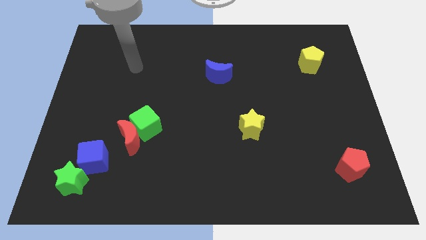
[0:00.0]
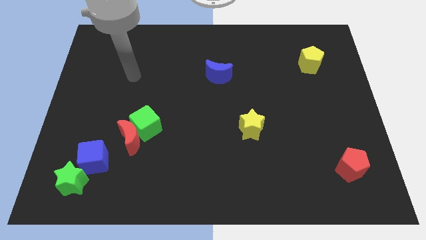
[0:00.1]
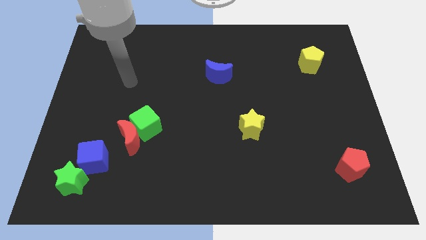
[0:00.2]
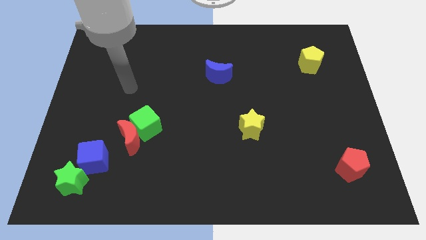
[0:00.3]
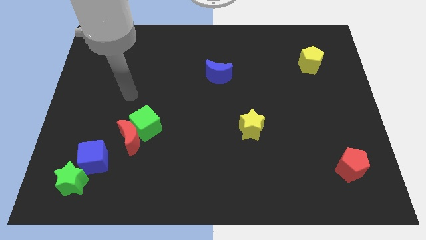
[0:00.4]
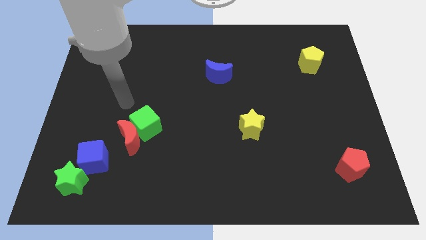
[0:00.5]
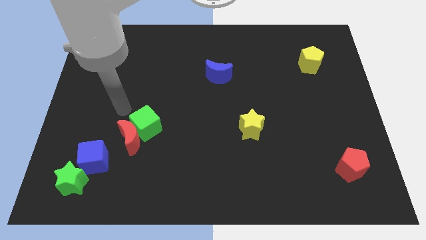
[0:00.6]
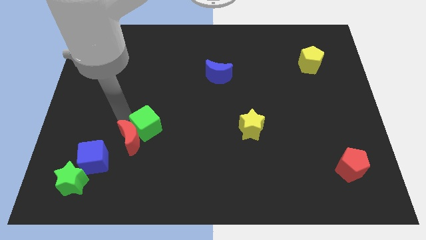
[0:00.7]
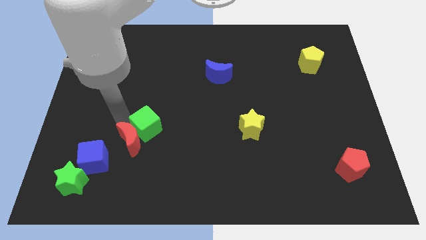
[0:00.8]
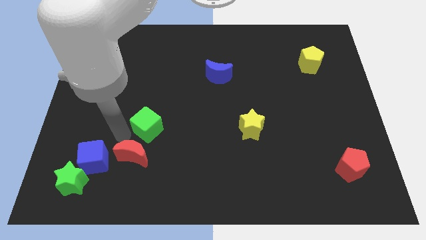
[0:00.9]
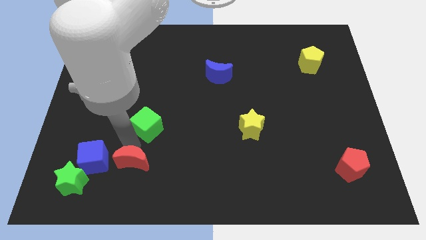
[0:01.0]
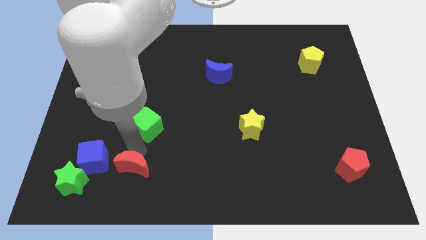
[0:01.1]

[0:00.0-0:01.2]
move the green cube away from the red moon

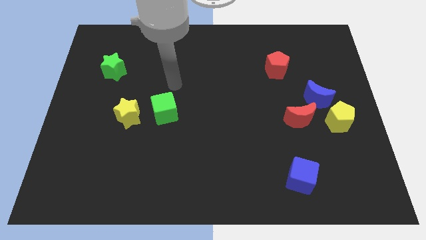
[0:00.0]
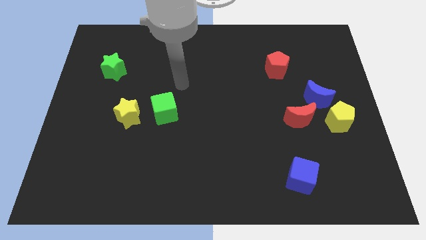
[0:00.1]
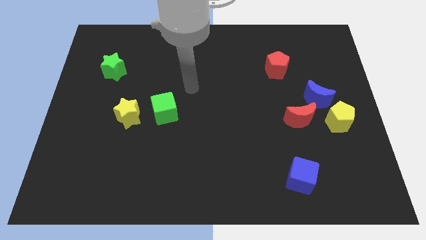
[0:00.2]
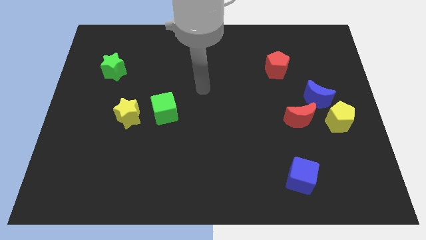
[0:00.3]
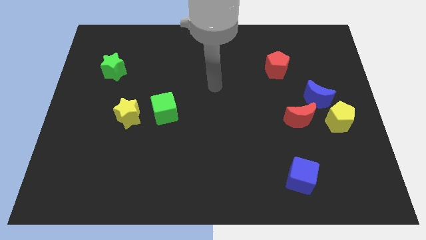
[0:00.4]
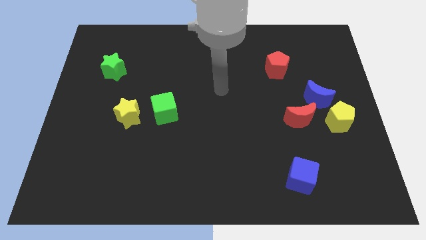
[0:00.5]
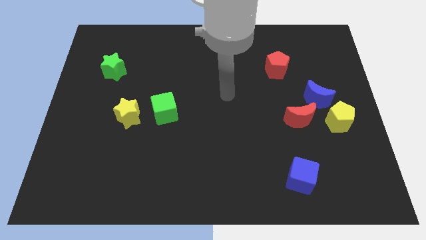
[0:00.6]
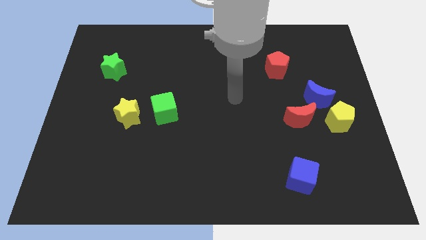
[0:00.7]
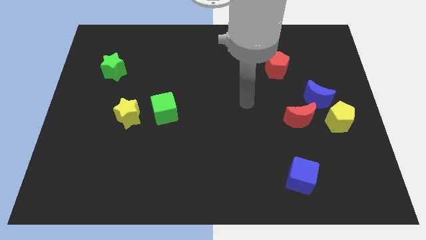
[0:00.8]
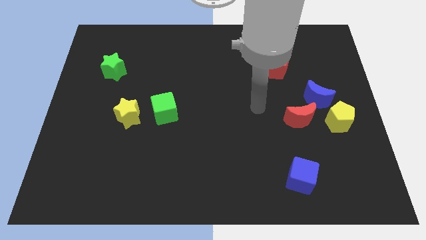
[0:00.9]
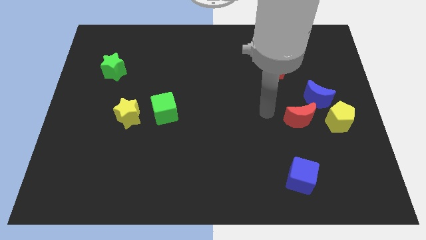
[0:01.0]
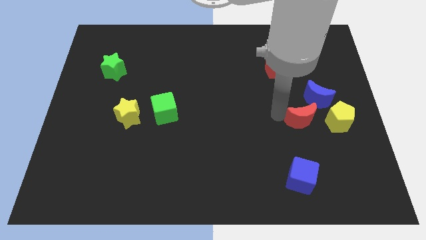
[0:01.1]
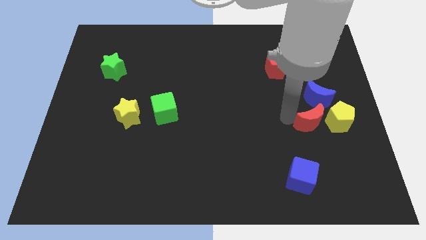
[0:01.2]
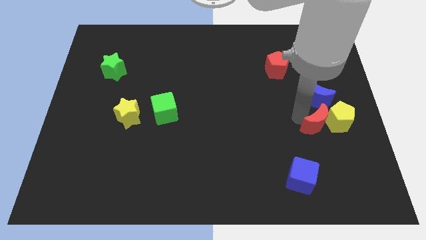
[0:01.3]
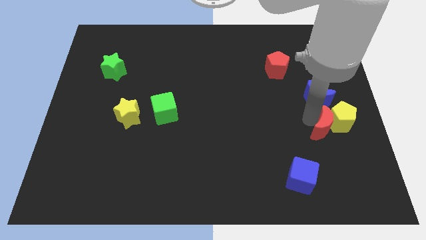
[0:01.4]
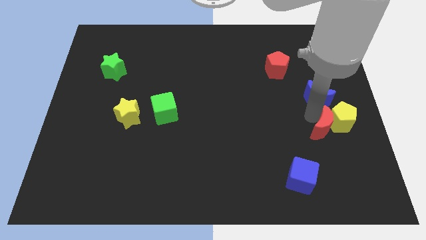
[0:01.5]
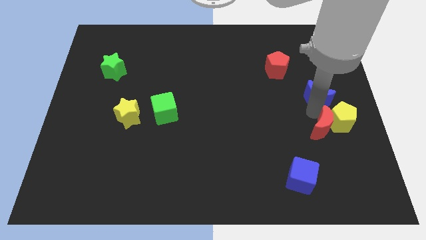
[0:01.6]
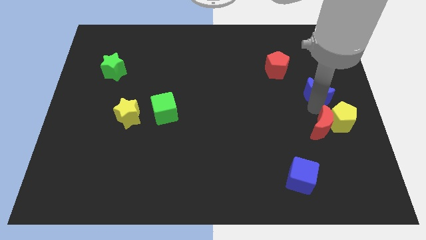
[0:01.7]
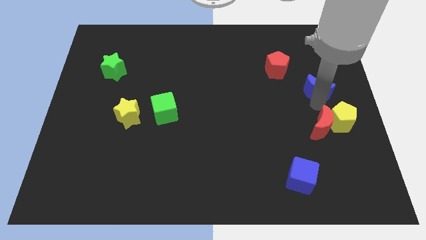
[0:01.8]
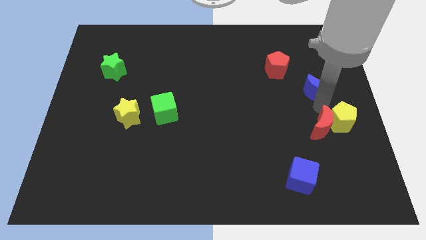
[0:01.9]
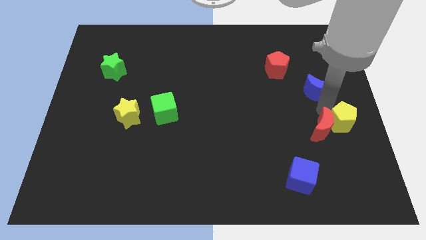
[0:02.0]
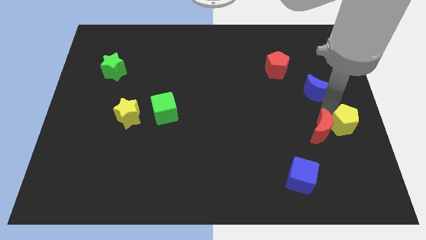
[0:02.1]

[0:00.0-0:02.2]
move the blue moon away from the red moon and yellow pentagon

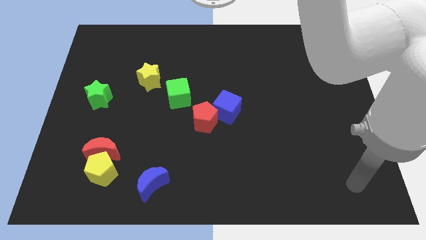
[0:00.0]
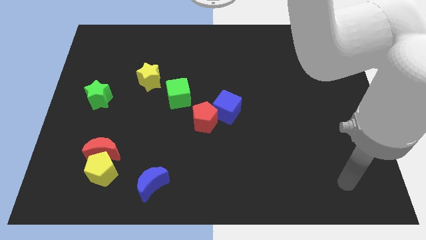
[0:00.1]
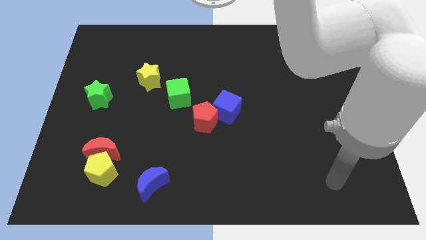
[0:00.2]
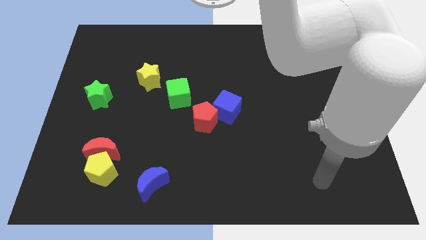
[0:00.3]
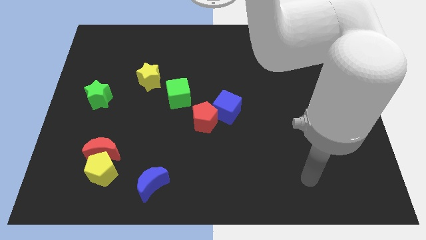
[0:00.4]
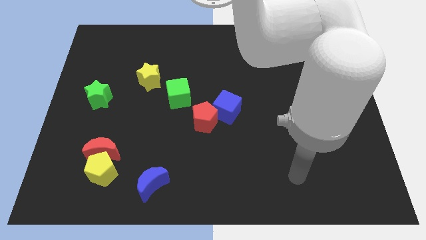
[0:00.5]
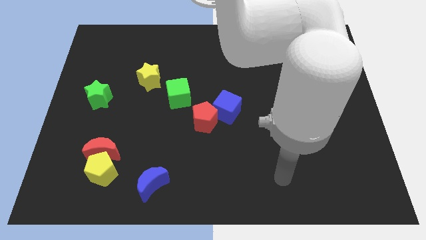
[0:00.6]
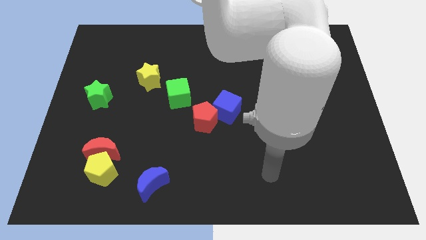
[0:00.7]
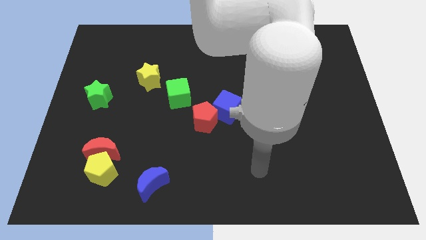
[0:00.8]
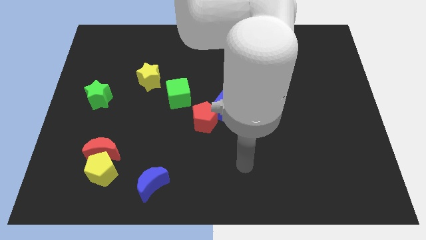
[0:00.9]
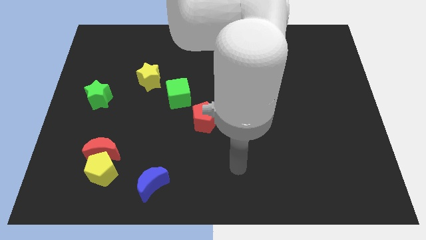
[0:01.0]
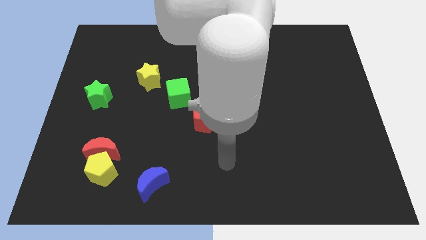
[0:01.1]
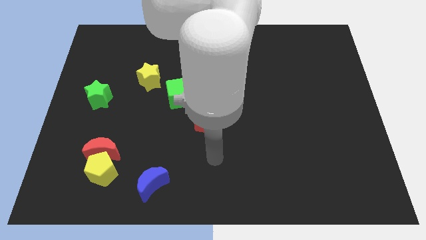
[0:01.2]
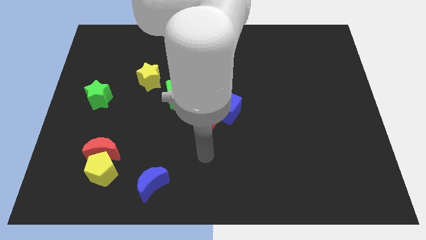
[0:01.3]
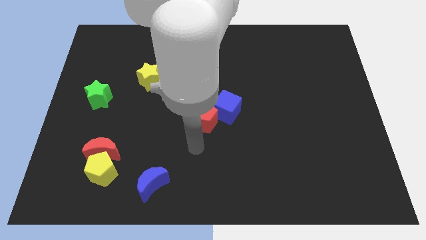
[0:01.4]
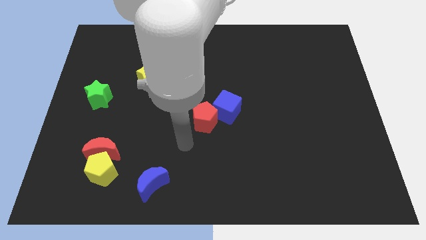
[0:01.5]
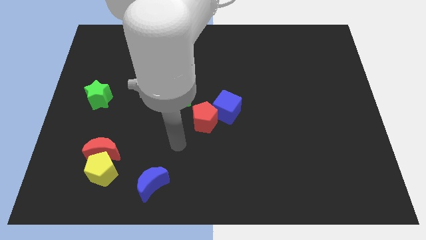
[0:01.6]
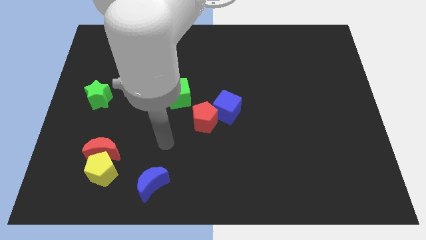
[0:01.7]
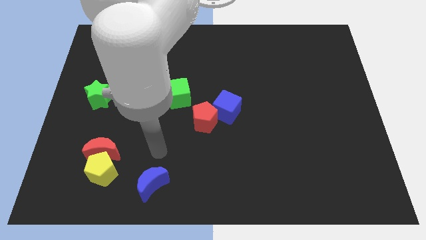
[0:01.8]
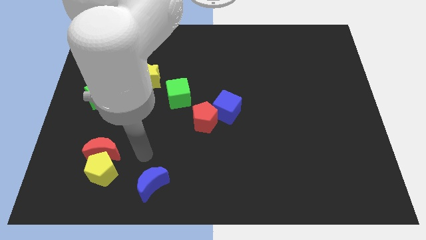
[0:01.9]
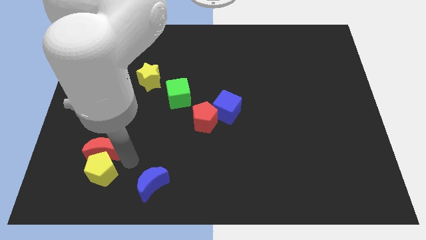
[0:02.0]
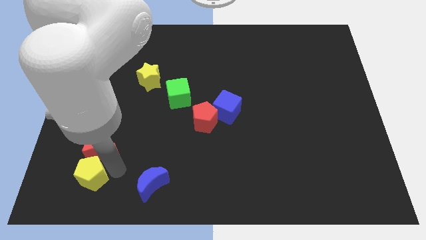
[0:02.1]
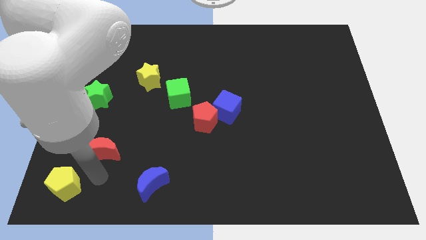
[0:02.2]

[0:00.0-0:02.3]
move the red moon away from the yellow pentagon

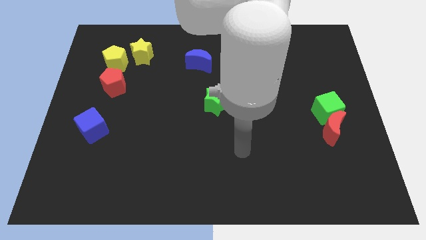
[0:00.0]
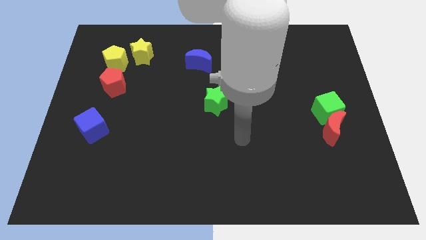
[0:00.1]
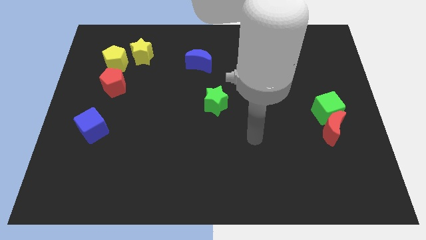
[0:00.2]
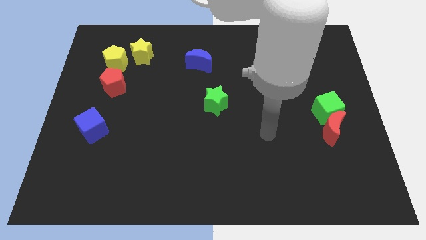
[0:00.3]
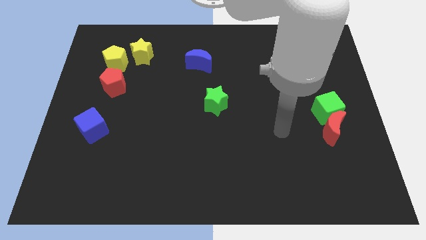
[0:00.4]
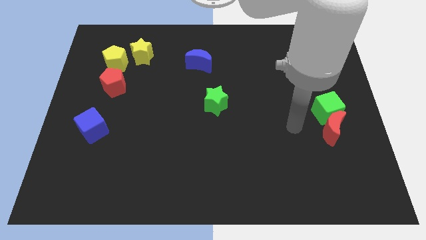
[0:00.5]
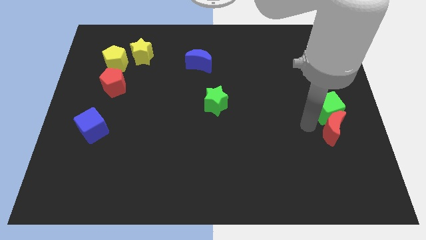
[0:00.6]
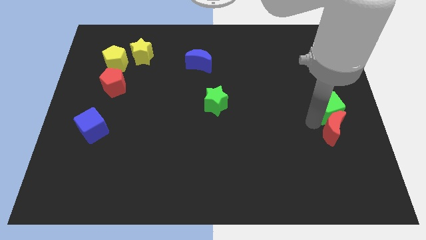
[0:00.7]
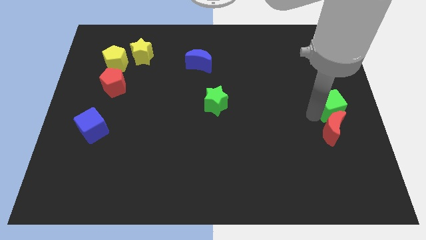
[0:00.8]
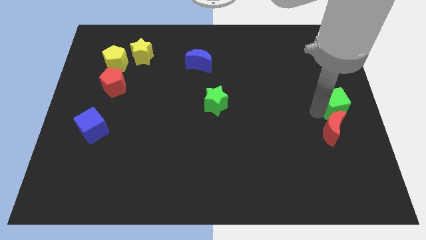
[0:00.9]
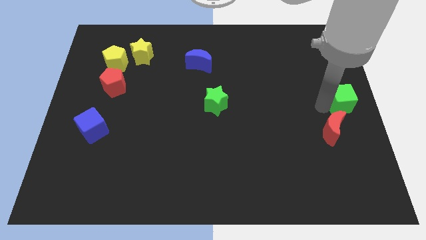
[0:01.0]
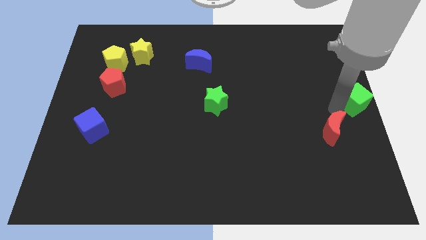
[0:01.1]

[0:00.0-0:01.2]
pull the red moon apart from the green cube

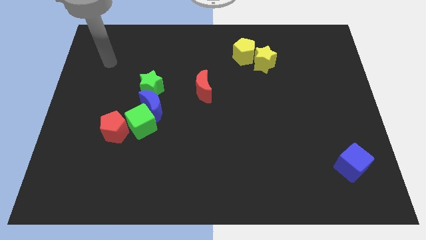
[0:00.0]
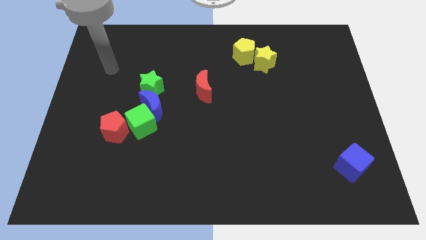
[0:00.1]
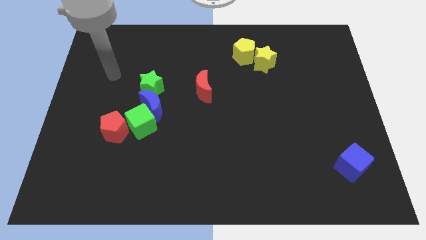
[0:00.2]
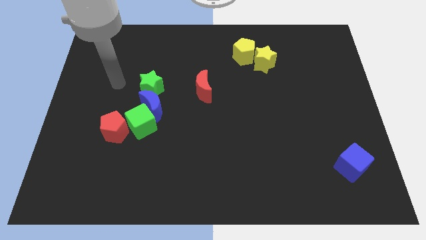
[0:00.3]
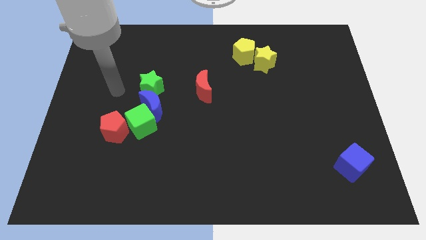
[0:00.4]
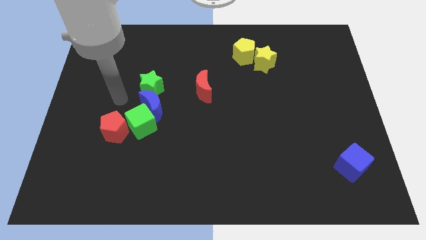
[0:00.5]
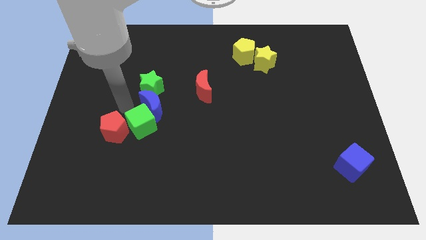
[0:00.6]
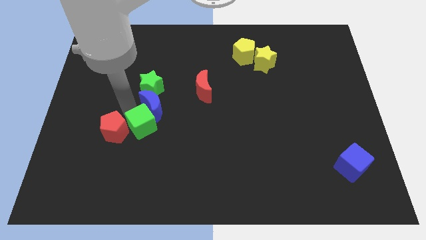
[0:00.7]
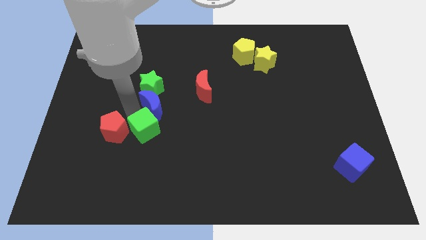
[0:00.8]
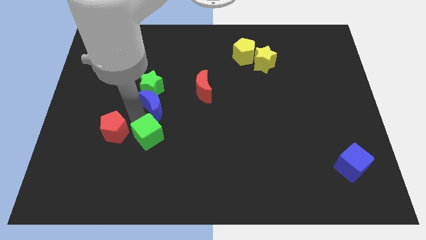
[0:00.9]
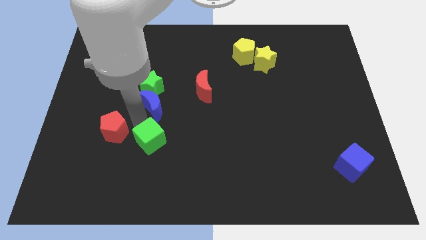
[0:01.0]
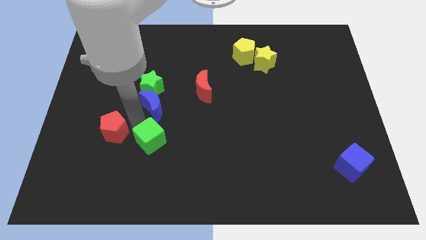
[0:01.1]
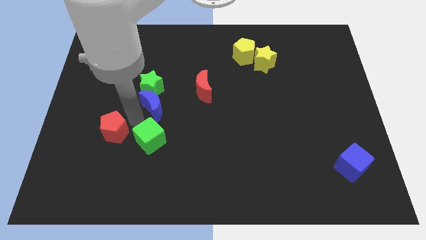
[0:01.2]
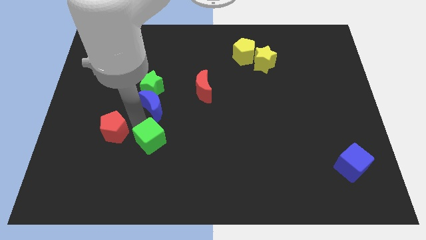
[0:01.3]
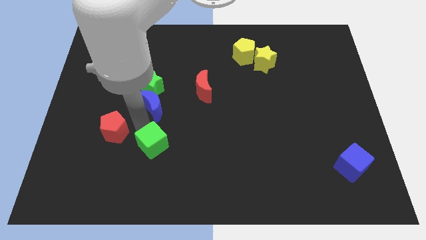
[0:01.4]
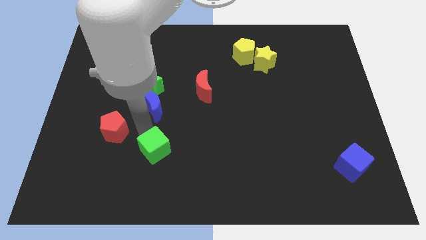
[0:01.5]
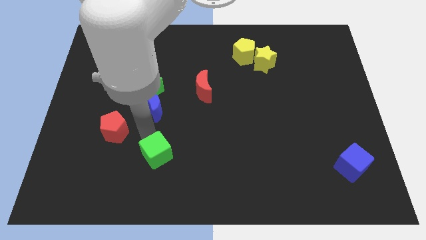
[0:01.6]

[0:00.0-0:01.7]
pull the green cube apart from the blue moon and red pentagon

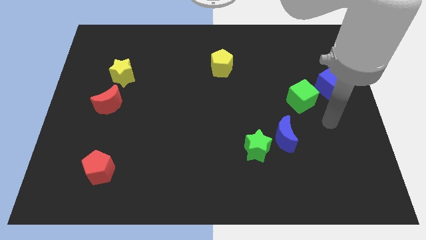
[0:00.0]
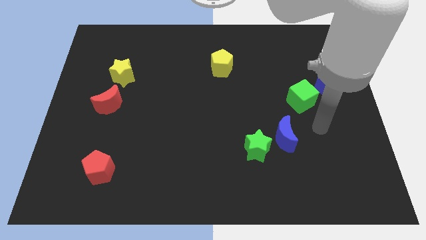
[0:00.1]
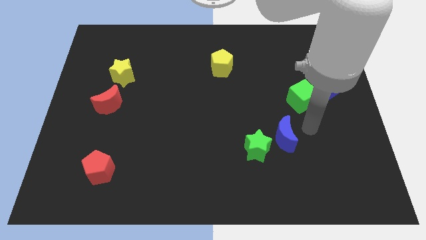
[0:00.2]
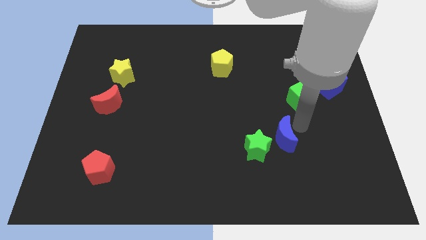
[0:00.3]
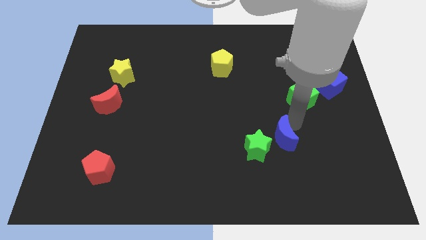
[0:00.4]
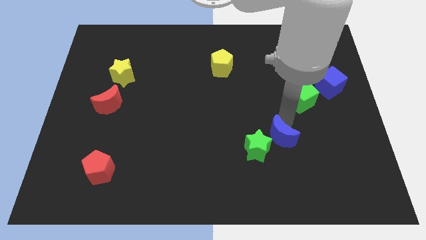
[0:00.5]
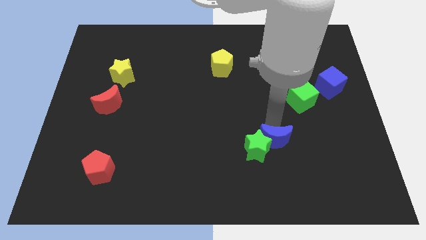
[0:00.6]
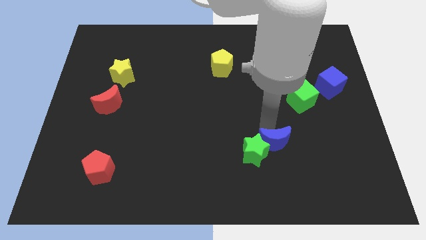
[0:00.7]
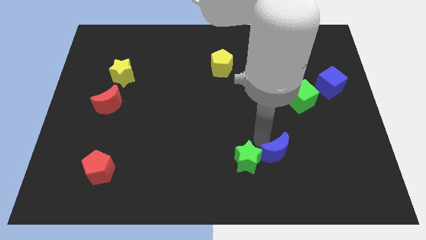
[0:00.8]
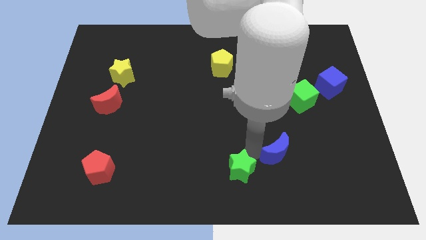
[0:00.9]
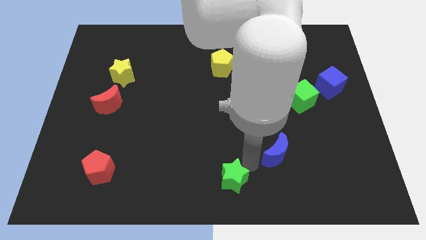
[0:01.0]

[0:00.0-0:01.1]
separate the blue moon from the green star
